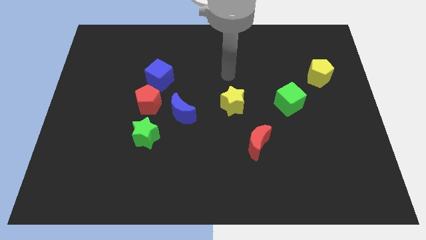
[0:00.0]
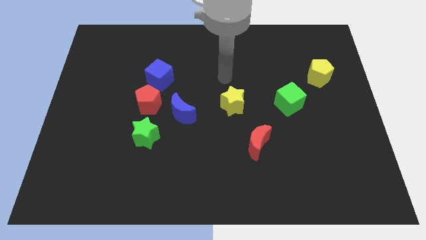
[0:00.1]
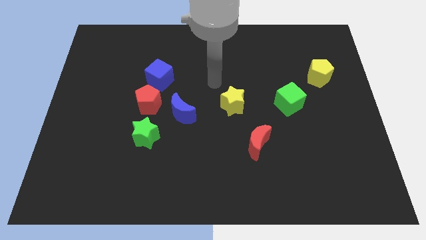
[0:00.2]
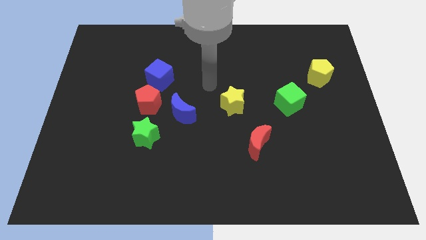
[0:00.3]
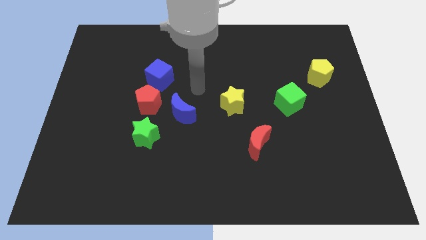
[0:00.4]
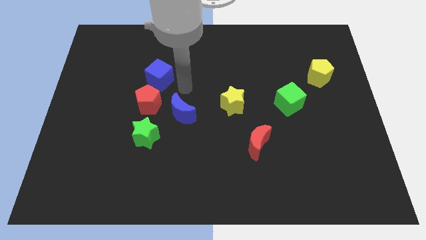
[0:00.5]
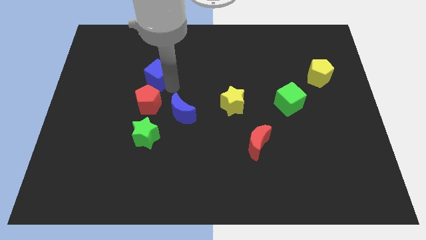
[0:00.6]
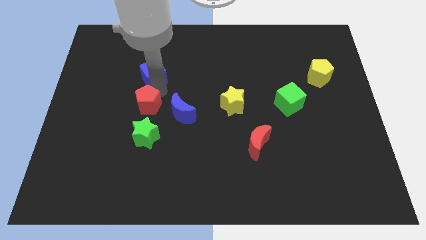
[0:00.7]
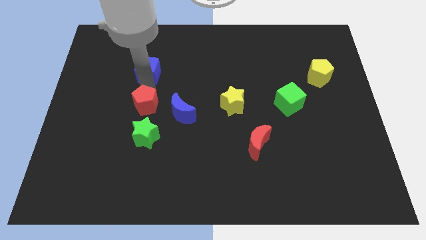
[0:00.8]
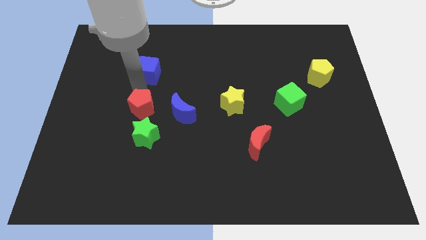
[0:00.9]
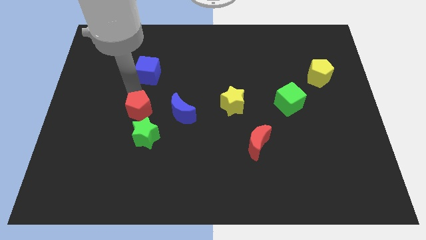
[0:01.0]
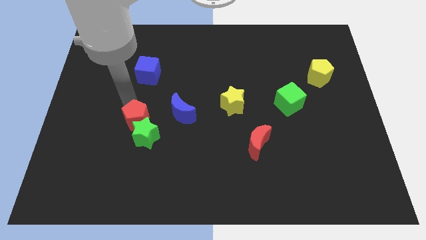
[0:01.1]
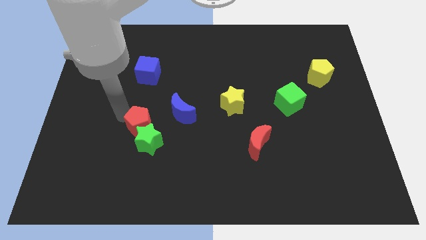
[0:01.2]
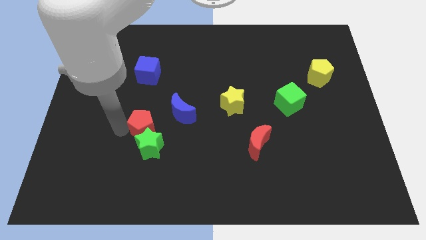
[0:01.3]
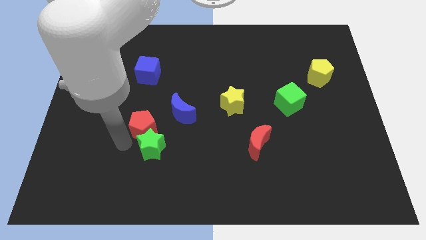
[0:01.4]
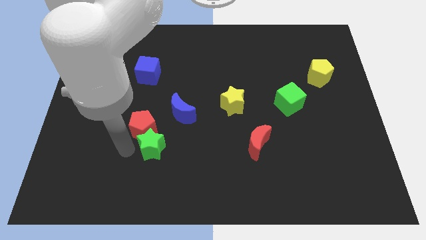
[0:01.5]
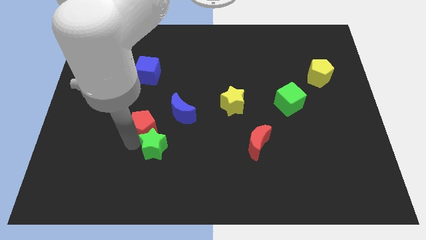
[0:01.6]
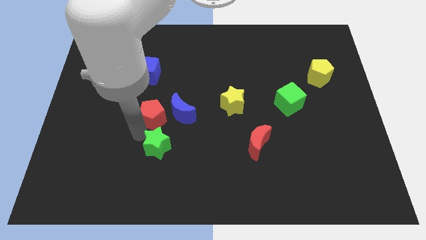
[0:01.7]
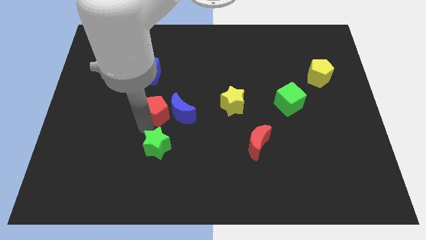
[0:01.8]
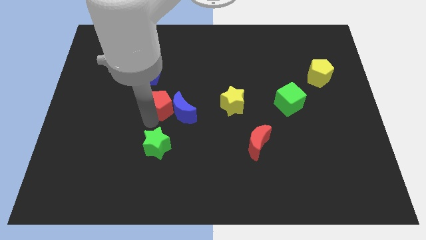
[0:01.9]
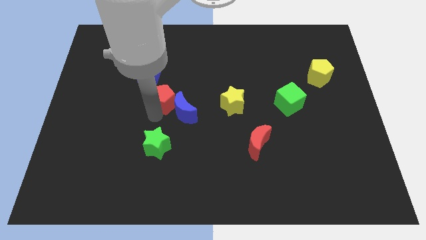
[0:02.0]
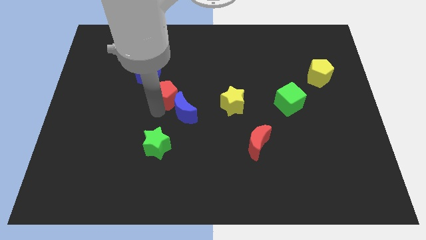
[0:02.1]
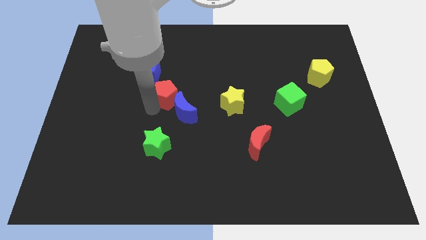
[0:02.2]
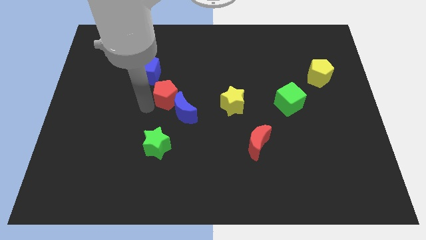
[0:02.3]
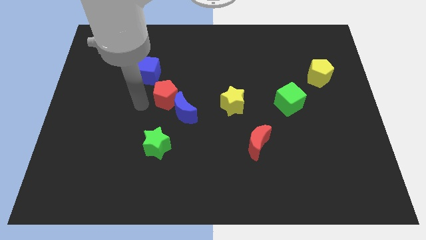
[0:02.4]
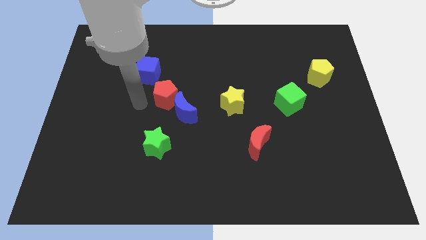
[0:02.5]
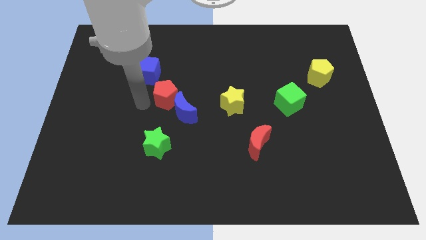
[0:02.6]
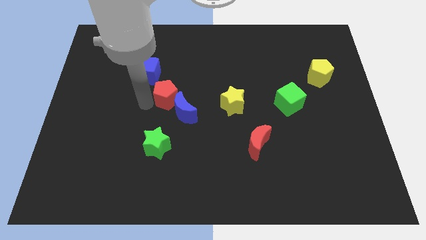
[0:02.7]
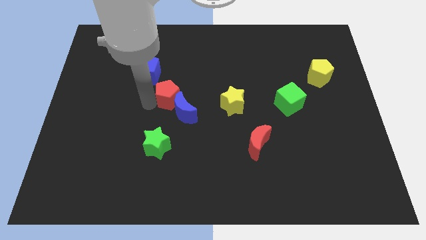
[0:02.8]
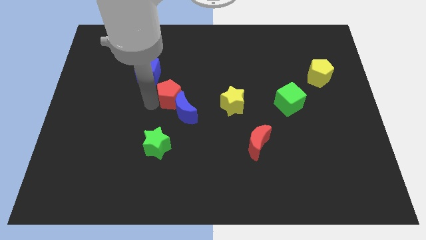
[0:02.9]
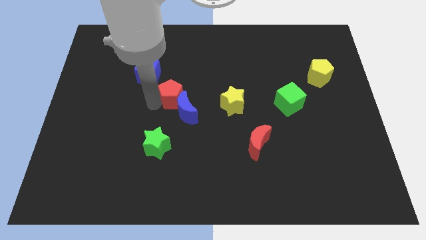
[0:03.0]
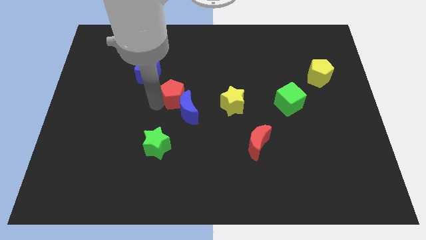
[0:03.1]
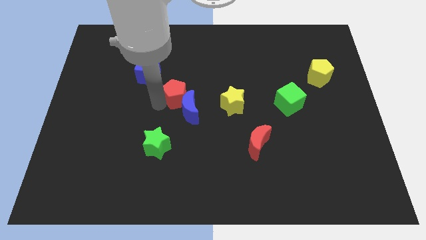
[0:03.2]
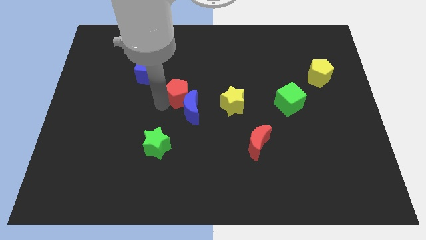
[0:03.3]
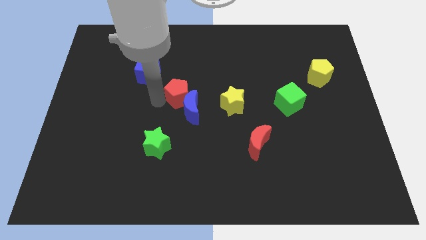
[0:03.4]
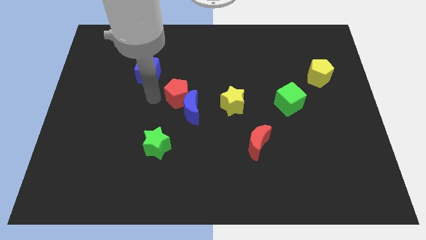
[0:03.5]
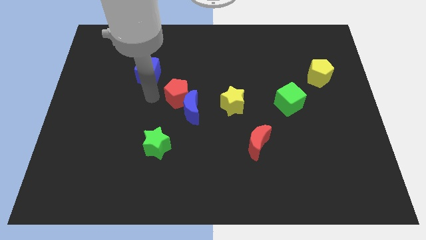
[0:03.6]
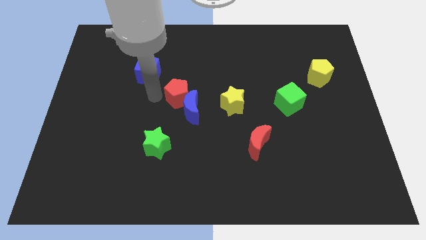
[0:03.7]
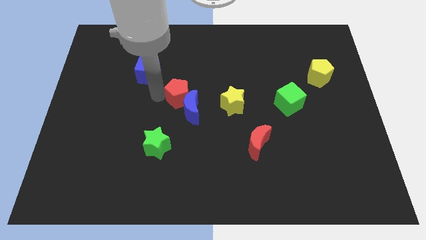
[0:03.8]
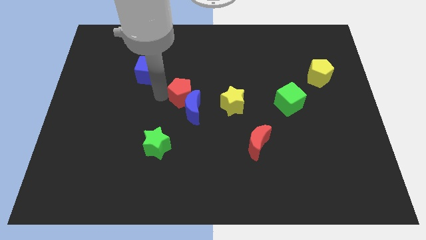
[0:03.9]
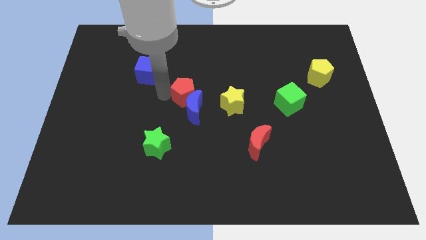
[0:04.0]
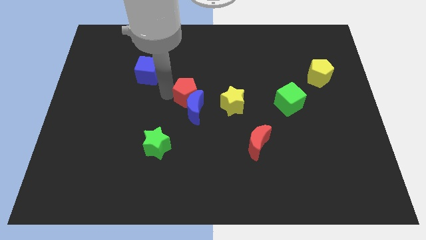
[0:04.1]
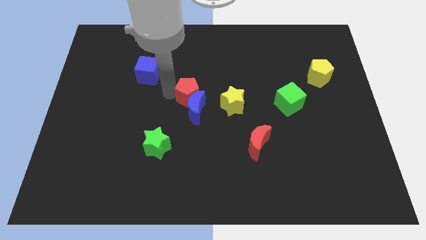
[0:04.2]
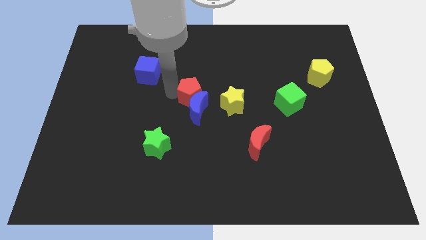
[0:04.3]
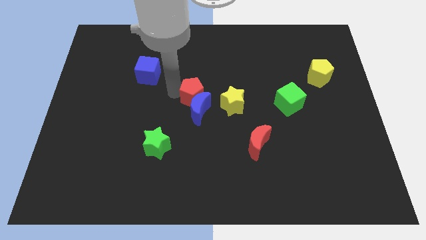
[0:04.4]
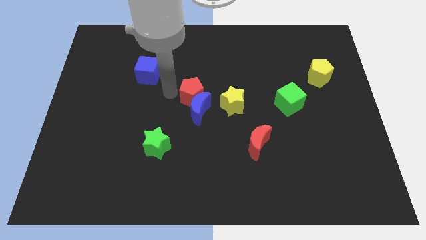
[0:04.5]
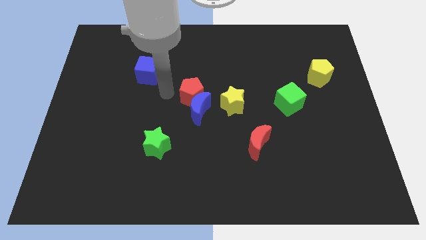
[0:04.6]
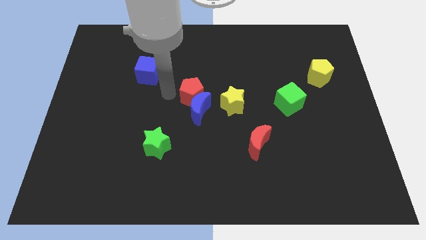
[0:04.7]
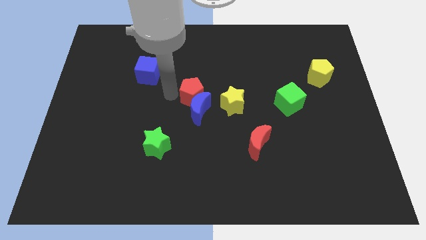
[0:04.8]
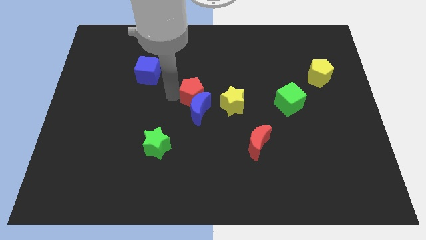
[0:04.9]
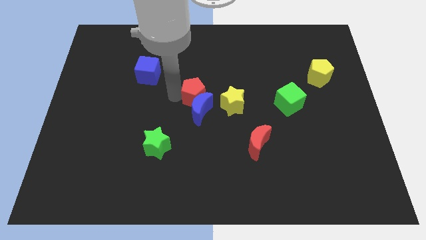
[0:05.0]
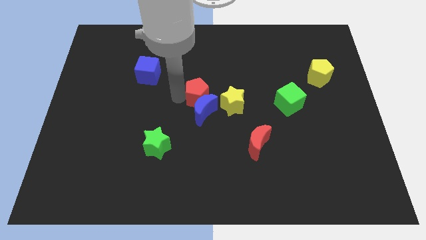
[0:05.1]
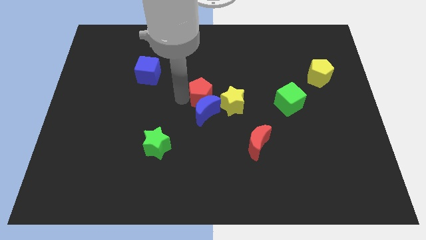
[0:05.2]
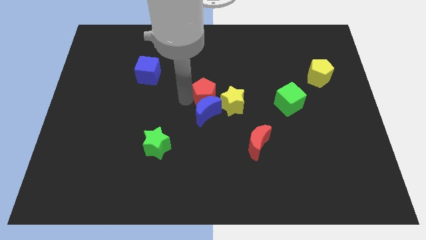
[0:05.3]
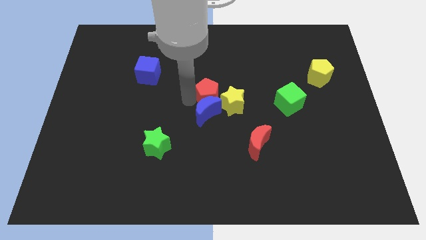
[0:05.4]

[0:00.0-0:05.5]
push the red pentagon next to the yellow star

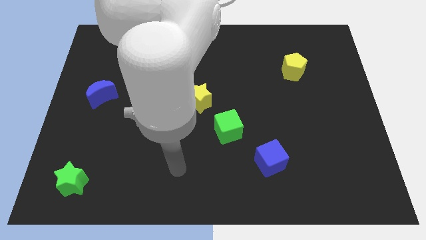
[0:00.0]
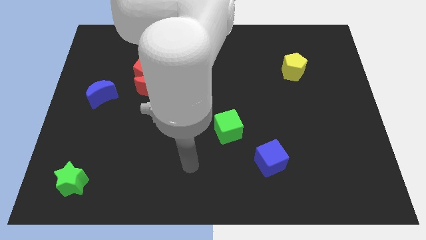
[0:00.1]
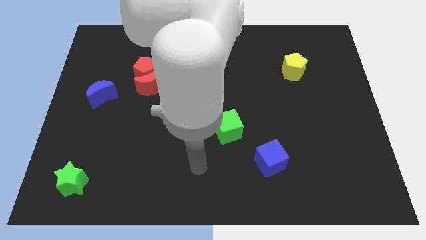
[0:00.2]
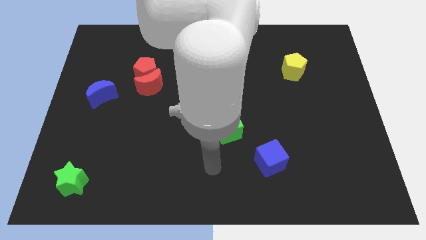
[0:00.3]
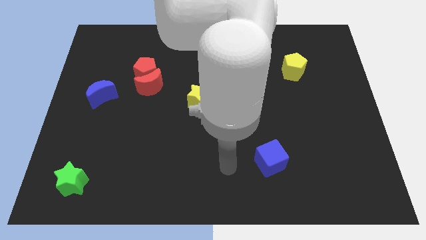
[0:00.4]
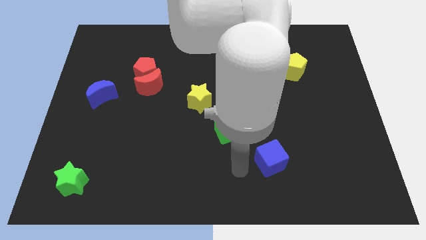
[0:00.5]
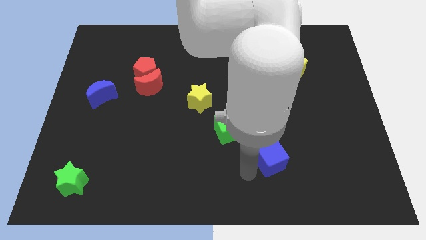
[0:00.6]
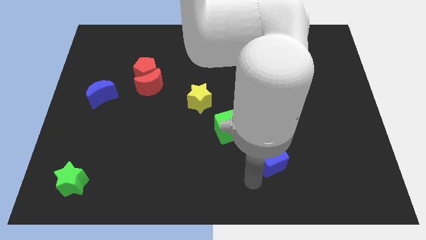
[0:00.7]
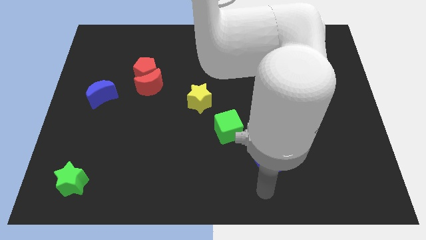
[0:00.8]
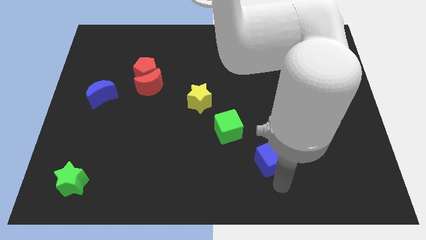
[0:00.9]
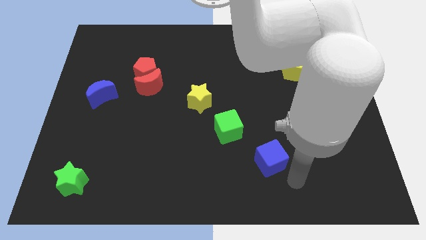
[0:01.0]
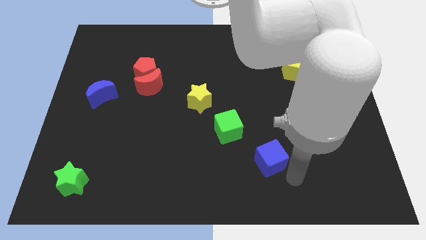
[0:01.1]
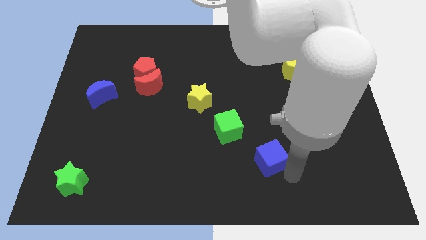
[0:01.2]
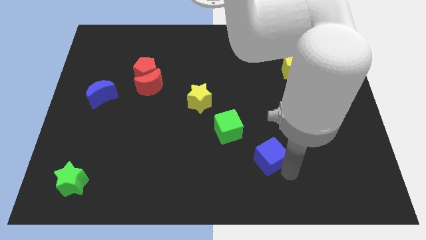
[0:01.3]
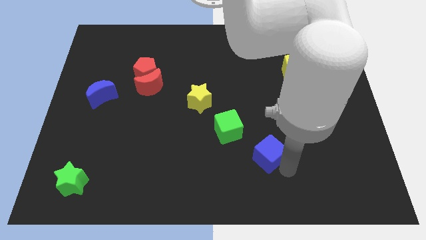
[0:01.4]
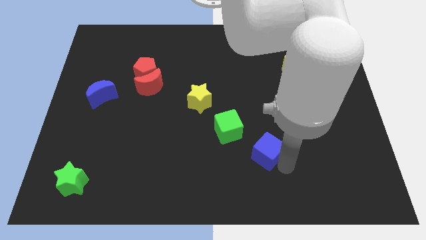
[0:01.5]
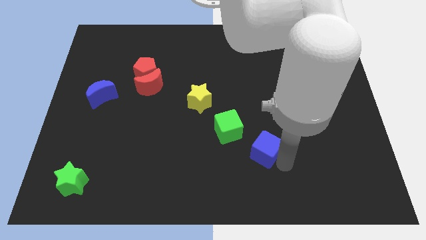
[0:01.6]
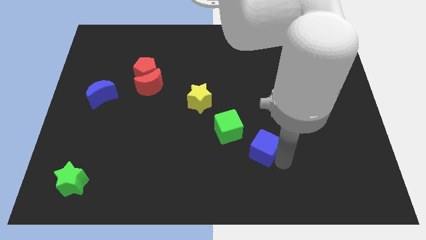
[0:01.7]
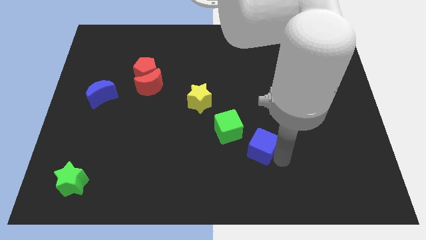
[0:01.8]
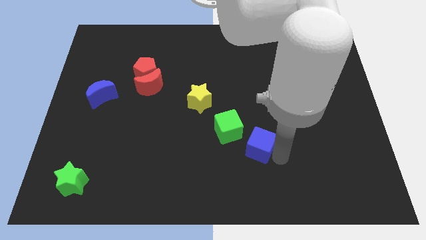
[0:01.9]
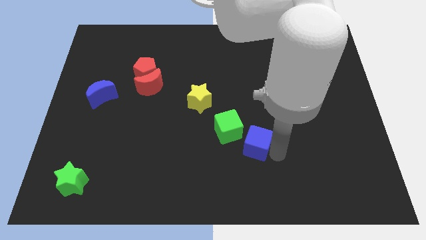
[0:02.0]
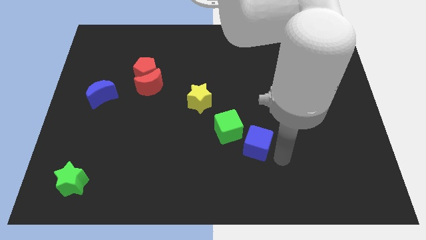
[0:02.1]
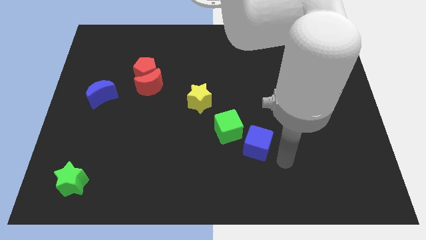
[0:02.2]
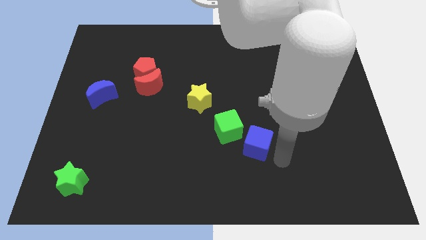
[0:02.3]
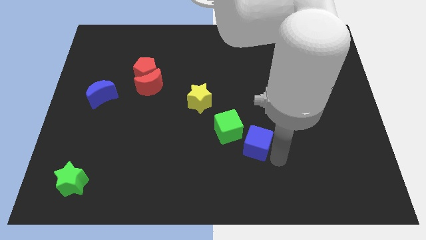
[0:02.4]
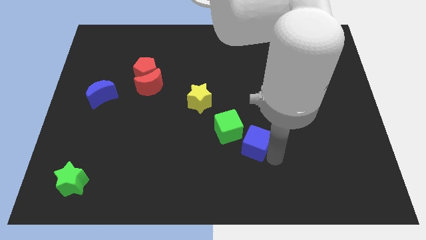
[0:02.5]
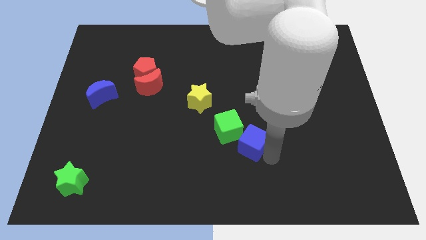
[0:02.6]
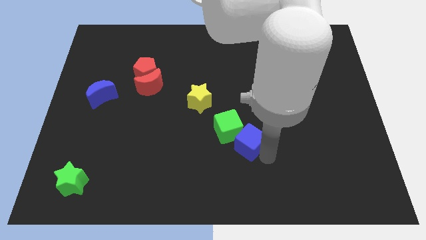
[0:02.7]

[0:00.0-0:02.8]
slide the blue cube close to the green cube
